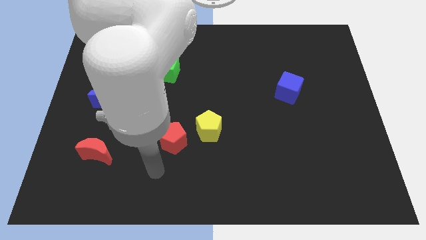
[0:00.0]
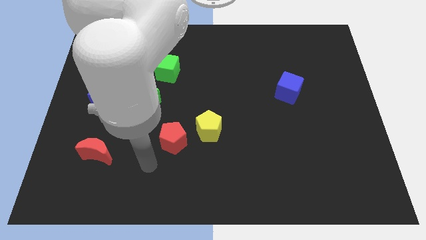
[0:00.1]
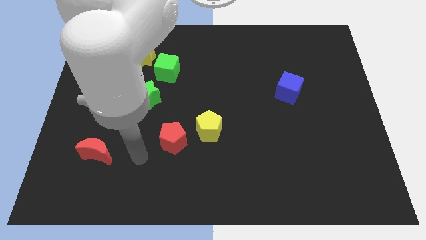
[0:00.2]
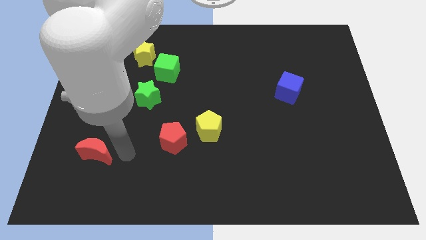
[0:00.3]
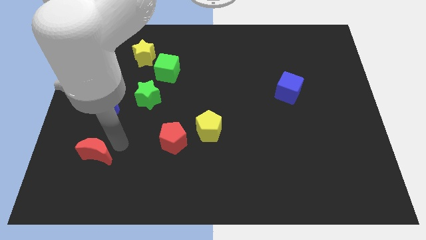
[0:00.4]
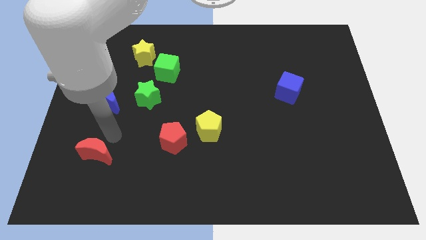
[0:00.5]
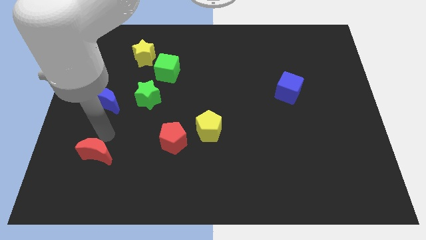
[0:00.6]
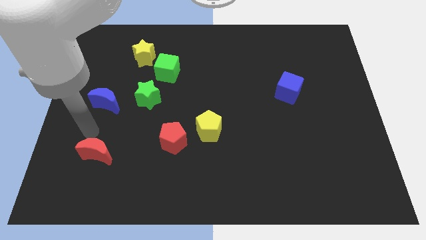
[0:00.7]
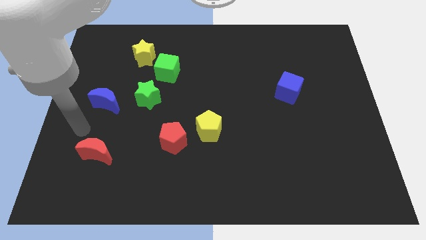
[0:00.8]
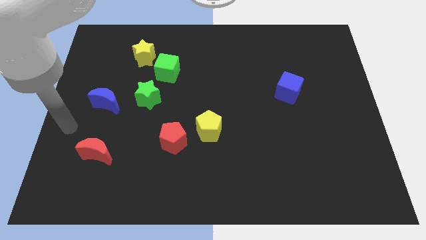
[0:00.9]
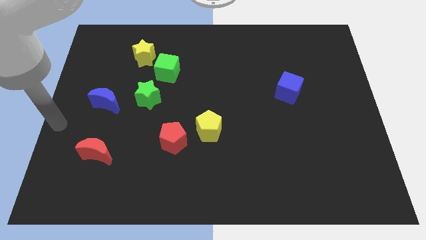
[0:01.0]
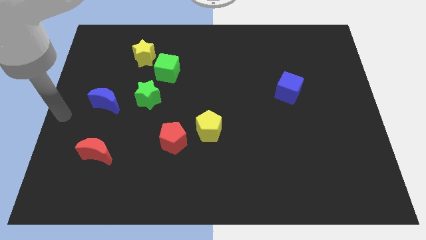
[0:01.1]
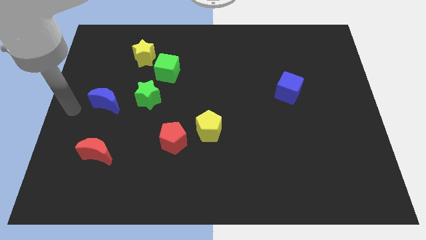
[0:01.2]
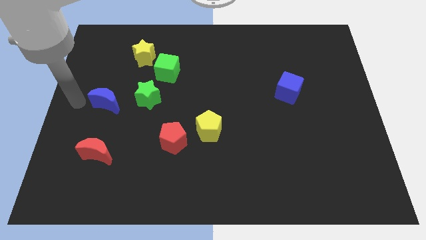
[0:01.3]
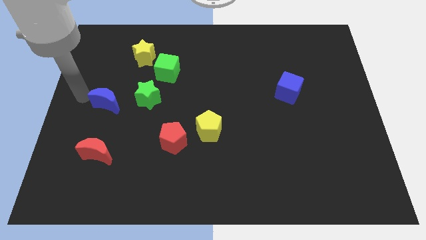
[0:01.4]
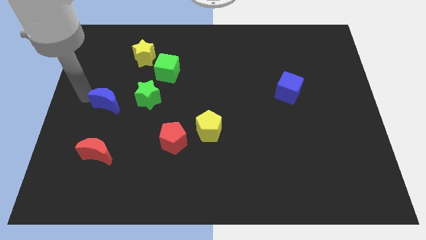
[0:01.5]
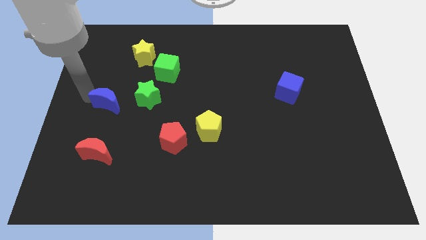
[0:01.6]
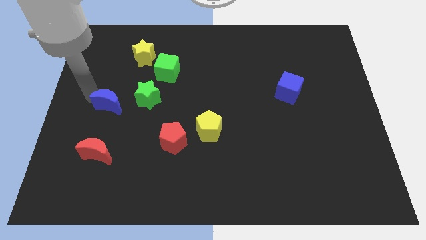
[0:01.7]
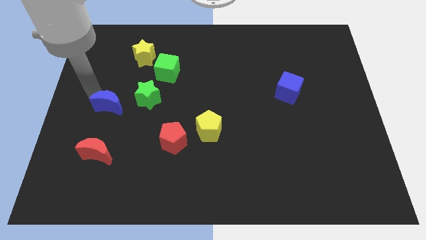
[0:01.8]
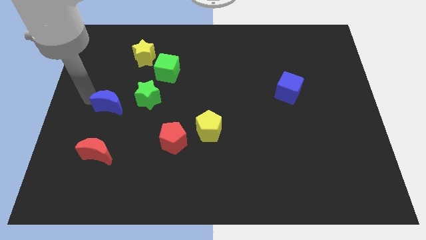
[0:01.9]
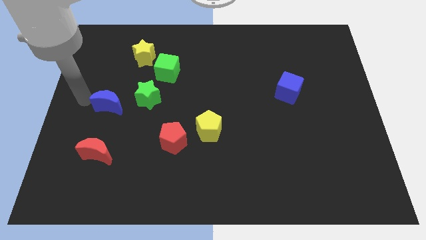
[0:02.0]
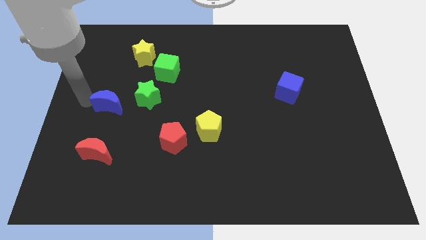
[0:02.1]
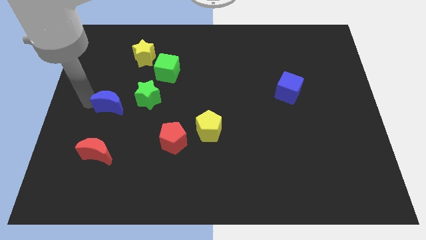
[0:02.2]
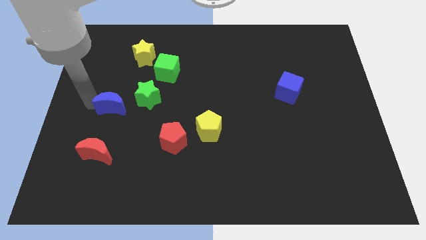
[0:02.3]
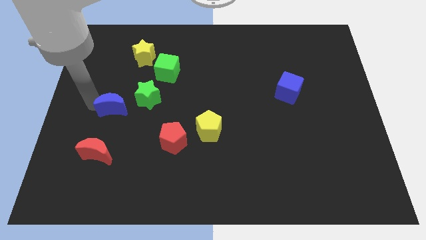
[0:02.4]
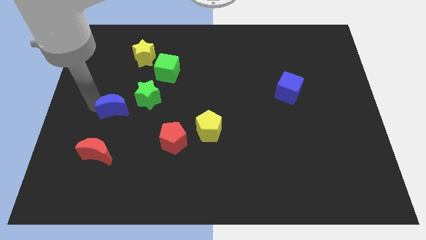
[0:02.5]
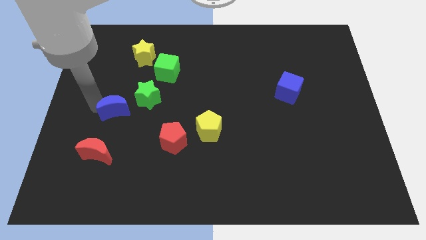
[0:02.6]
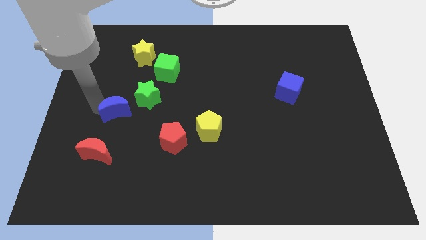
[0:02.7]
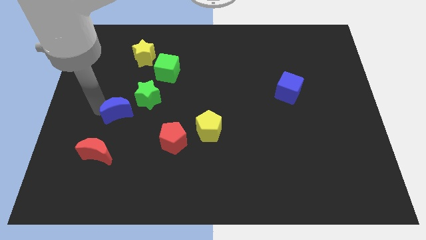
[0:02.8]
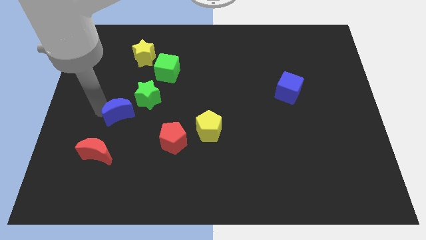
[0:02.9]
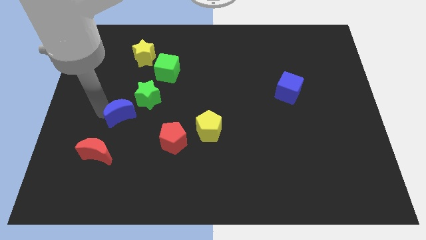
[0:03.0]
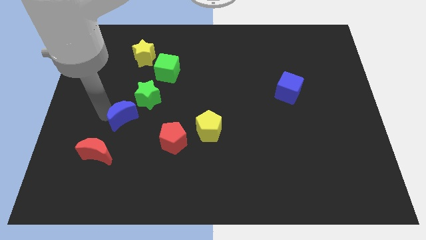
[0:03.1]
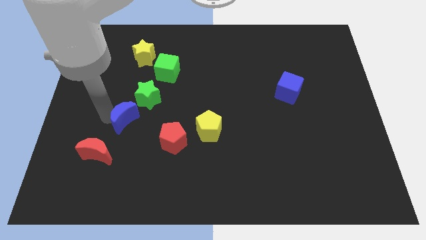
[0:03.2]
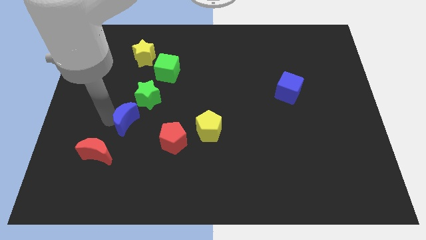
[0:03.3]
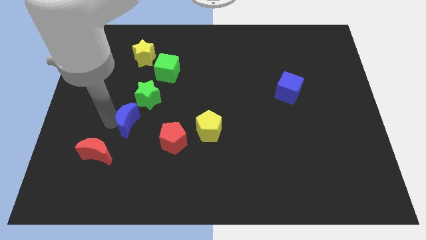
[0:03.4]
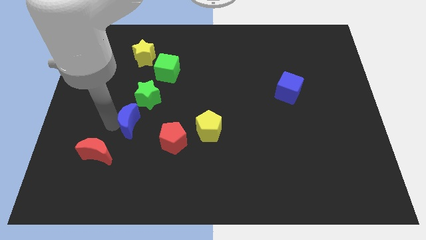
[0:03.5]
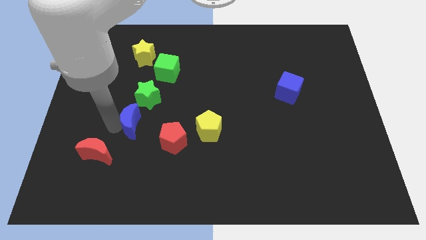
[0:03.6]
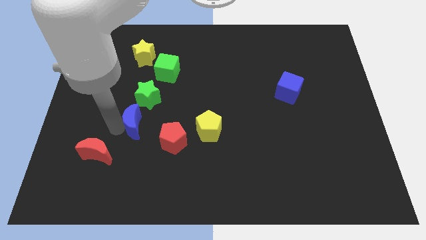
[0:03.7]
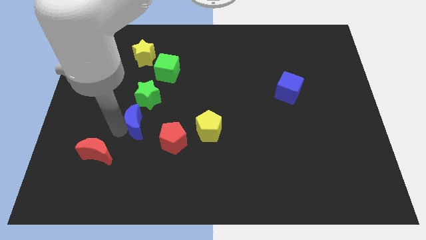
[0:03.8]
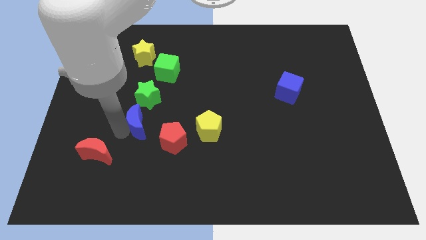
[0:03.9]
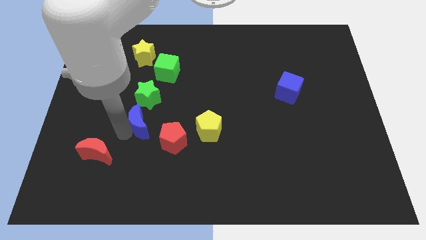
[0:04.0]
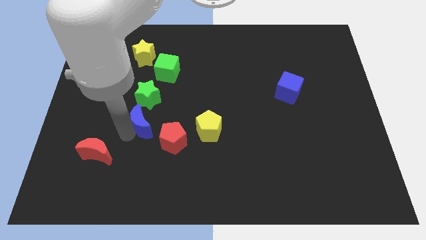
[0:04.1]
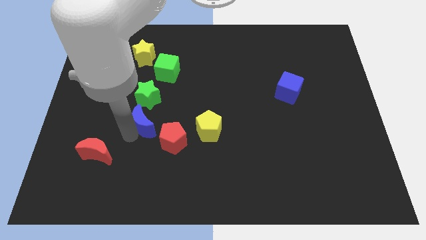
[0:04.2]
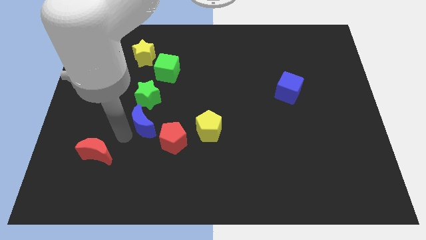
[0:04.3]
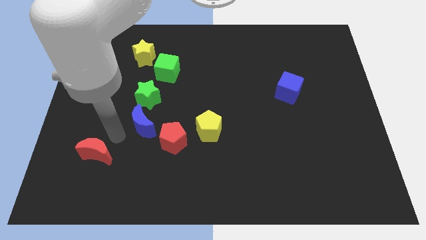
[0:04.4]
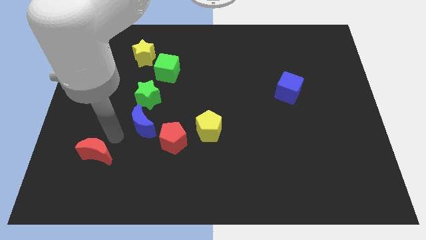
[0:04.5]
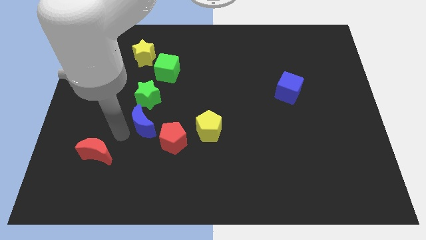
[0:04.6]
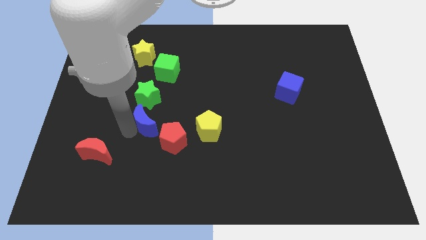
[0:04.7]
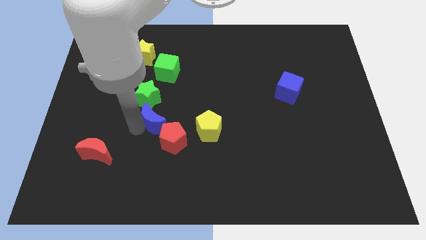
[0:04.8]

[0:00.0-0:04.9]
slide the blue moon to the bottom right side of the green star

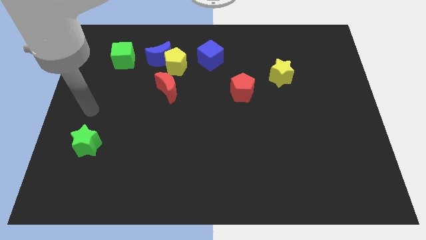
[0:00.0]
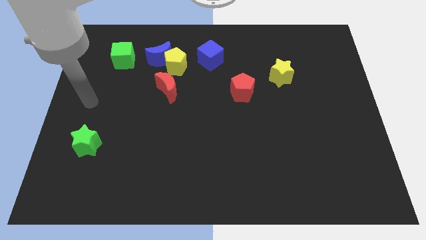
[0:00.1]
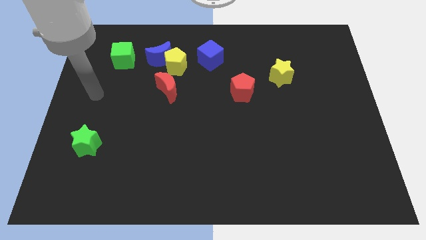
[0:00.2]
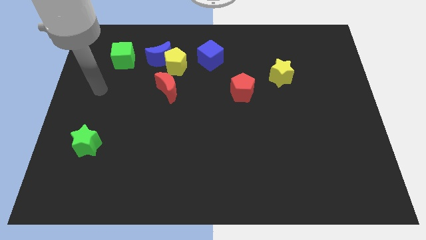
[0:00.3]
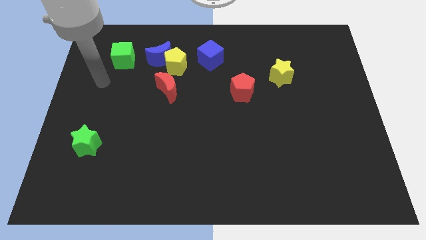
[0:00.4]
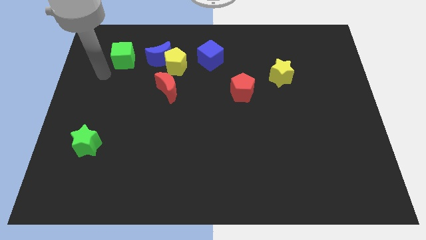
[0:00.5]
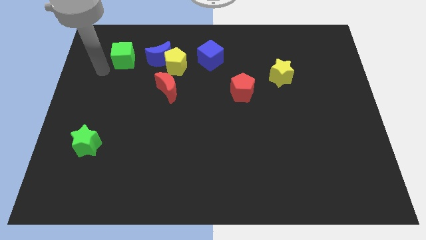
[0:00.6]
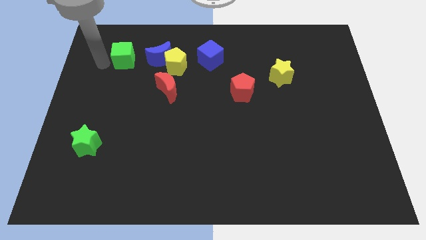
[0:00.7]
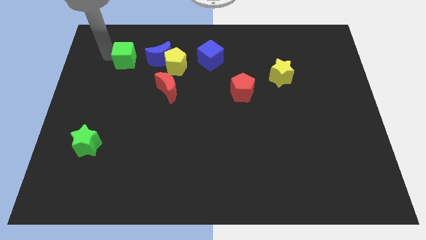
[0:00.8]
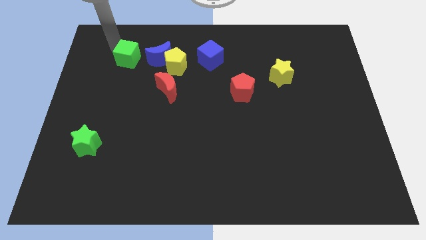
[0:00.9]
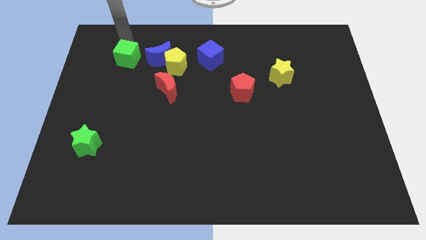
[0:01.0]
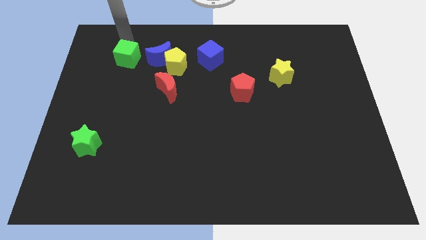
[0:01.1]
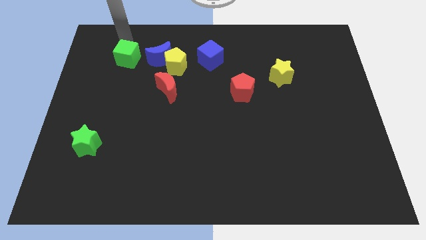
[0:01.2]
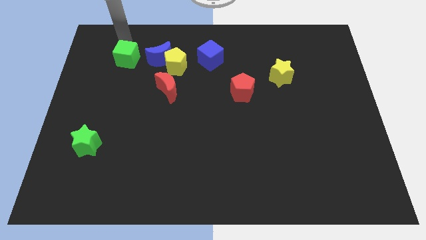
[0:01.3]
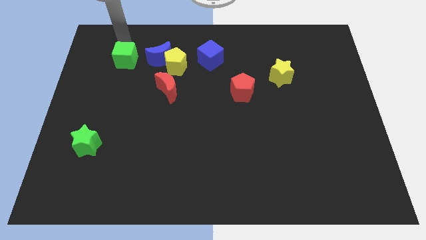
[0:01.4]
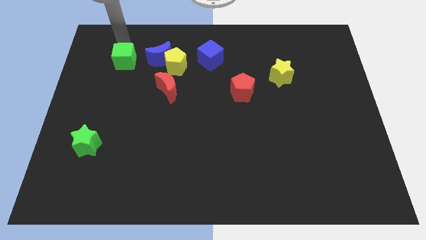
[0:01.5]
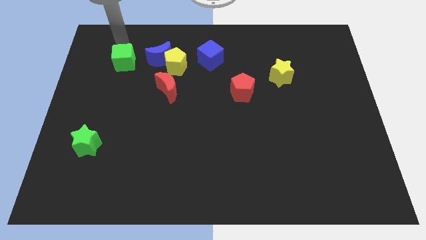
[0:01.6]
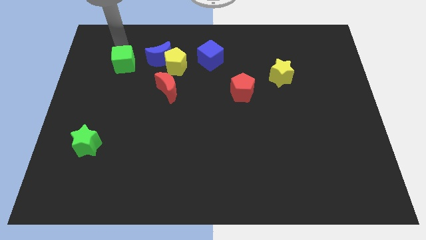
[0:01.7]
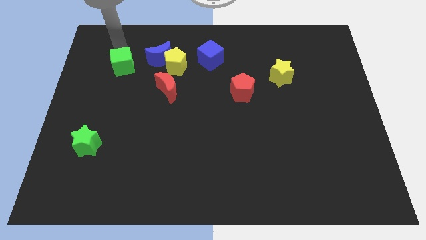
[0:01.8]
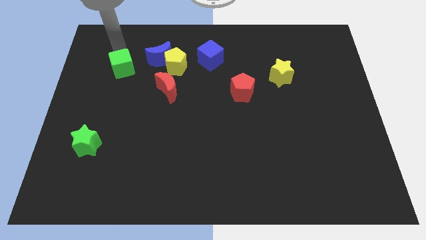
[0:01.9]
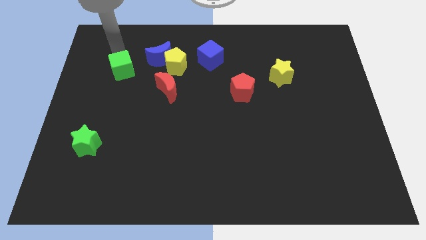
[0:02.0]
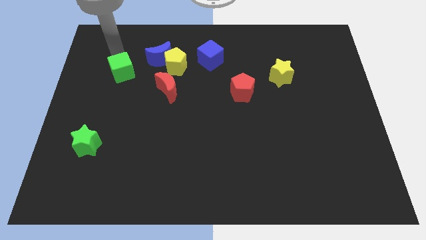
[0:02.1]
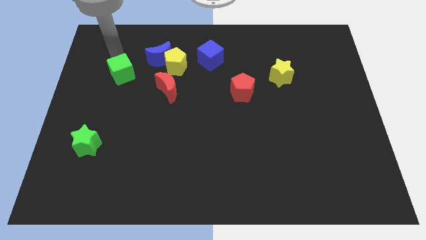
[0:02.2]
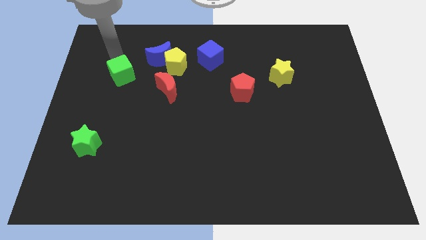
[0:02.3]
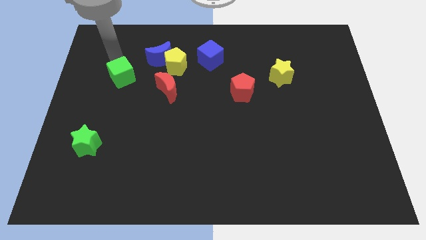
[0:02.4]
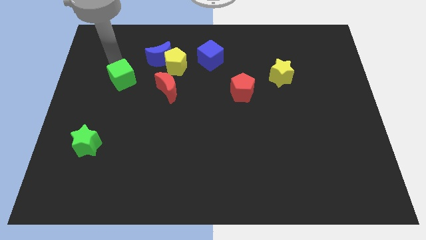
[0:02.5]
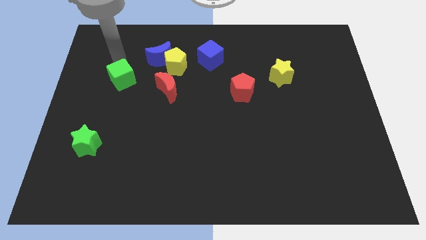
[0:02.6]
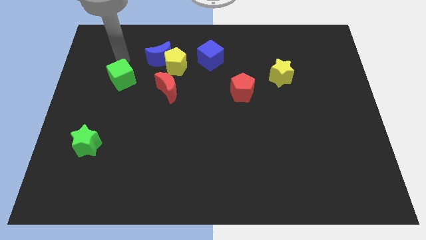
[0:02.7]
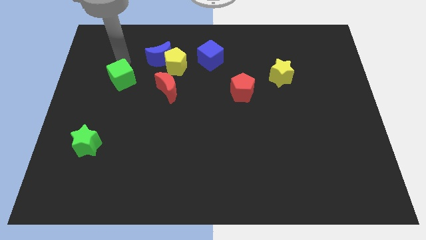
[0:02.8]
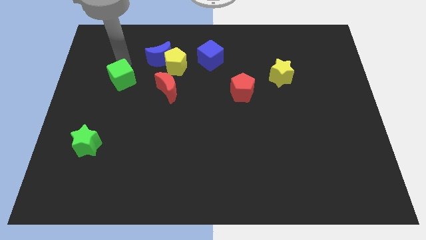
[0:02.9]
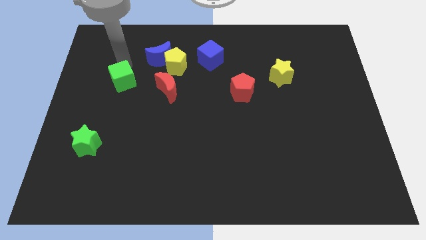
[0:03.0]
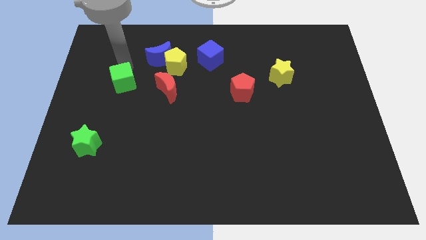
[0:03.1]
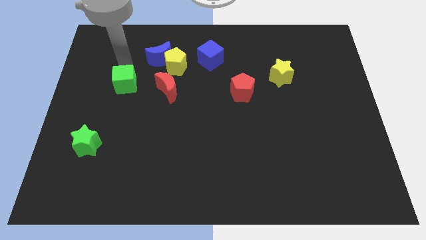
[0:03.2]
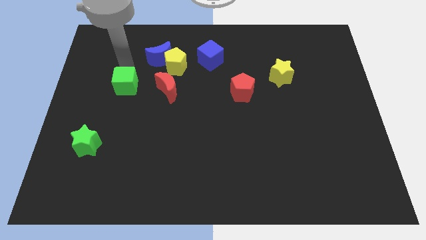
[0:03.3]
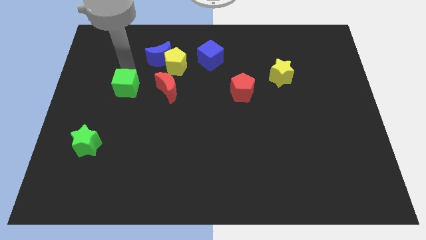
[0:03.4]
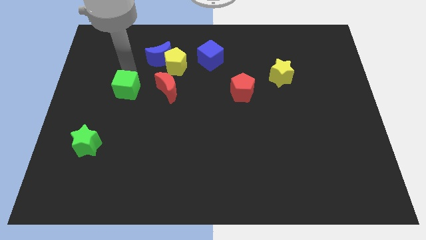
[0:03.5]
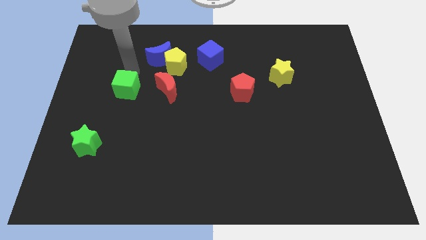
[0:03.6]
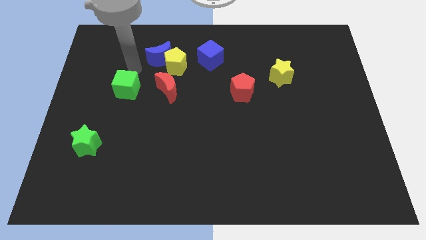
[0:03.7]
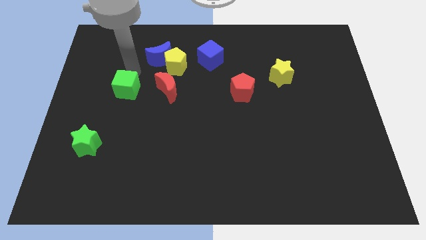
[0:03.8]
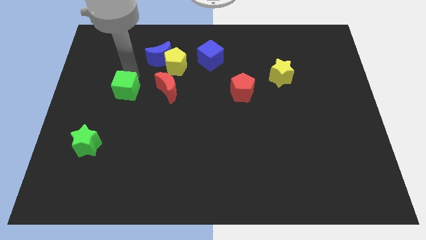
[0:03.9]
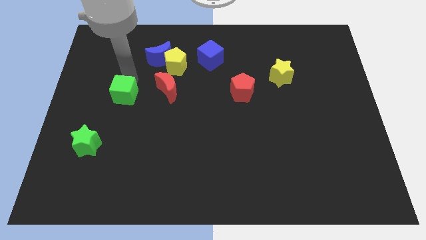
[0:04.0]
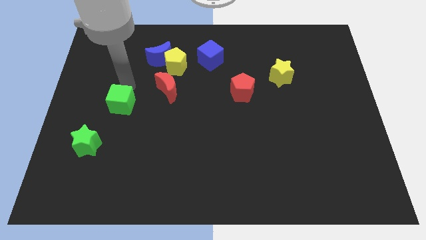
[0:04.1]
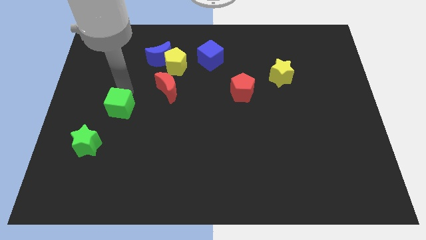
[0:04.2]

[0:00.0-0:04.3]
move the green cube diagonally up and to the right of the green star
